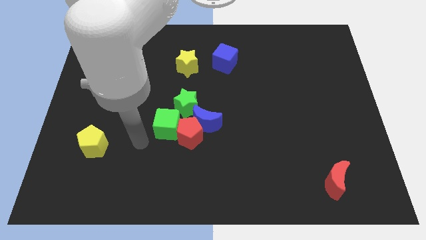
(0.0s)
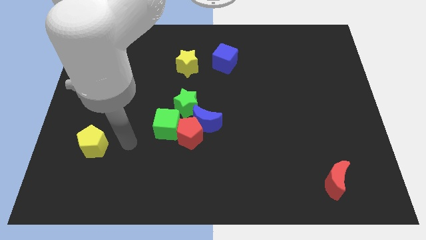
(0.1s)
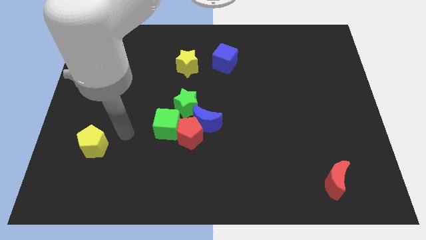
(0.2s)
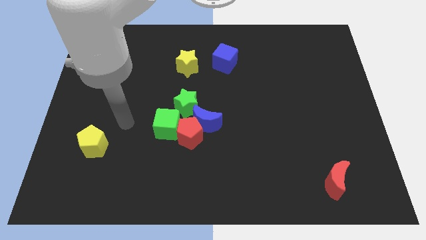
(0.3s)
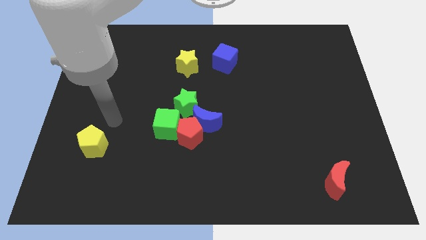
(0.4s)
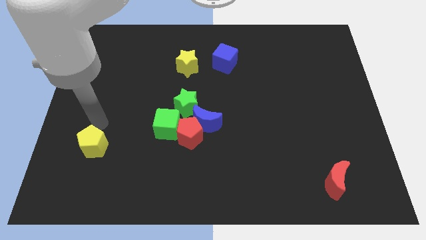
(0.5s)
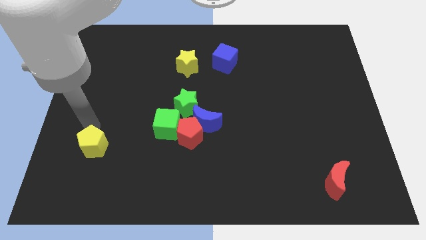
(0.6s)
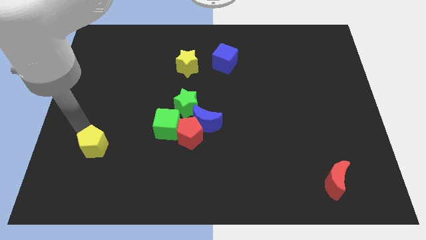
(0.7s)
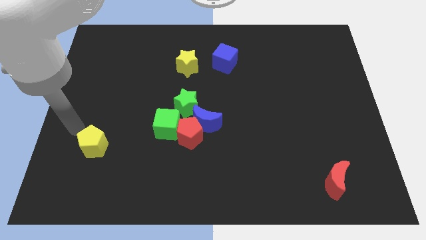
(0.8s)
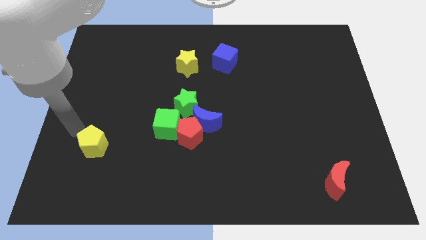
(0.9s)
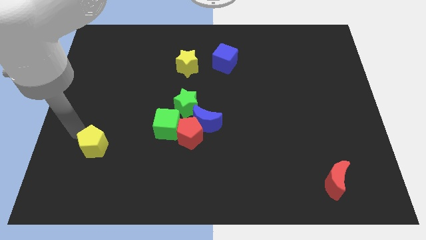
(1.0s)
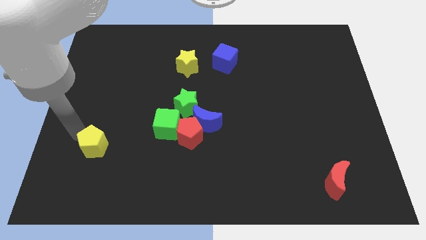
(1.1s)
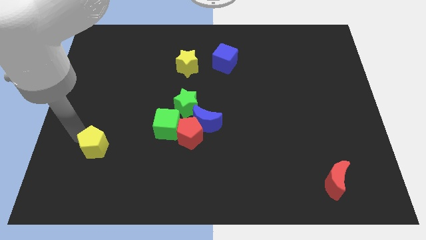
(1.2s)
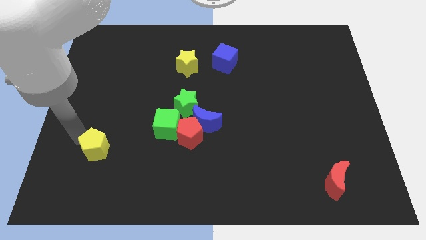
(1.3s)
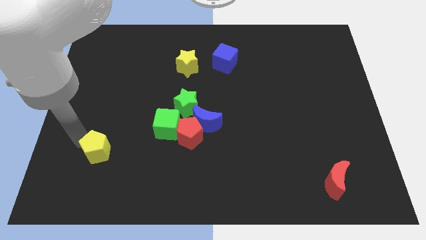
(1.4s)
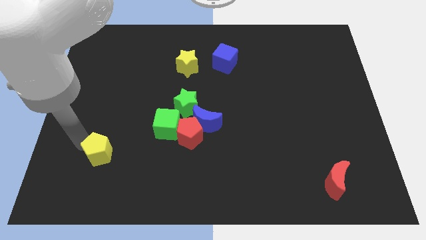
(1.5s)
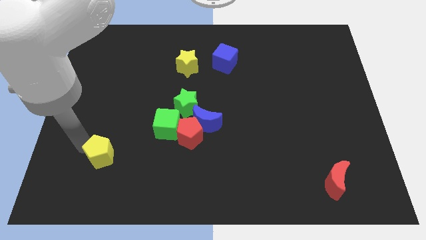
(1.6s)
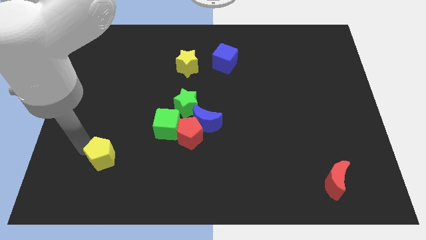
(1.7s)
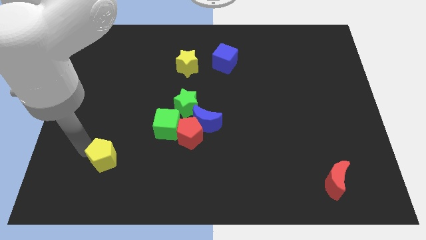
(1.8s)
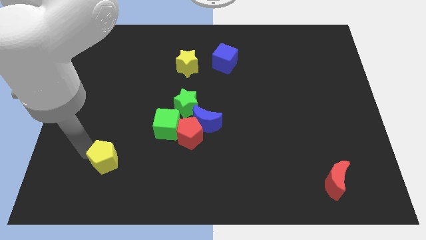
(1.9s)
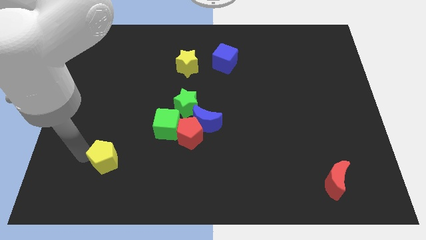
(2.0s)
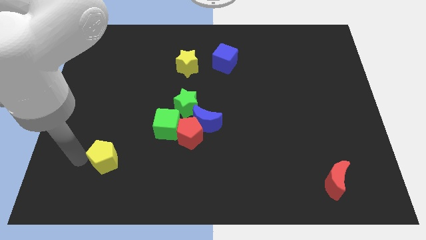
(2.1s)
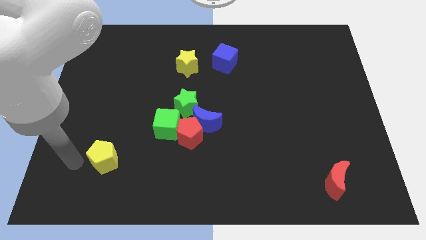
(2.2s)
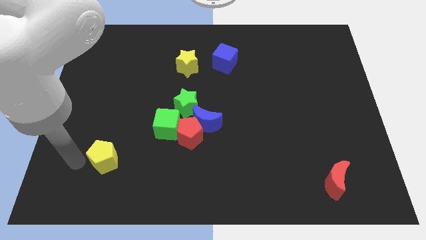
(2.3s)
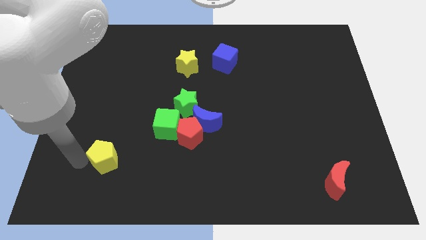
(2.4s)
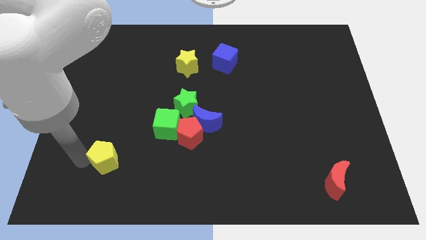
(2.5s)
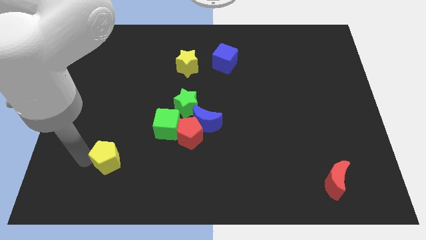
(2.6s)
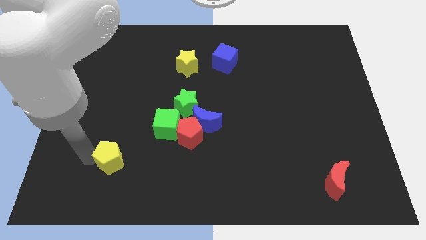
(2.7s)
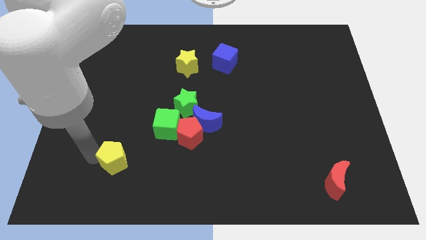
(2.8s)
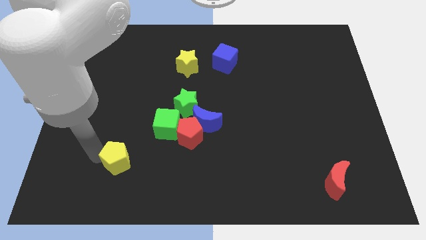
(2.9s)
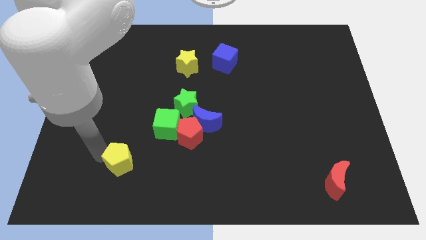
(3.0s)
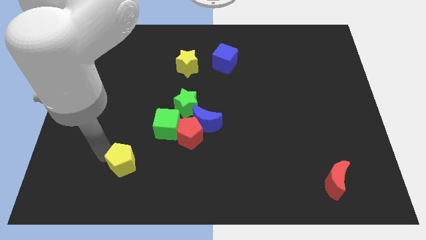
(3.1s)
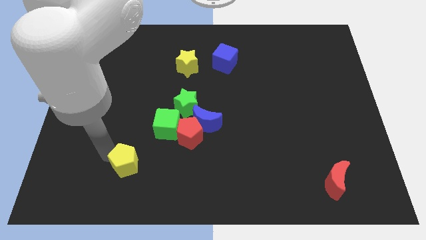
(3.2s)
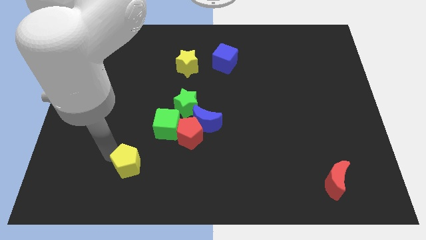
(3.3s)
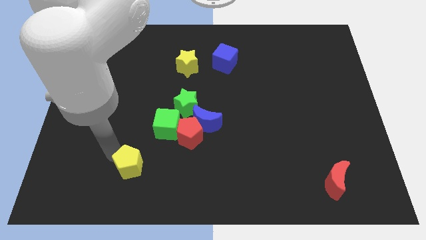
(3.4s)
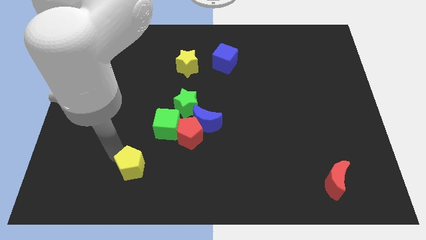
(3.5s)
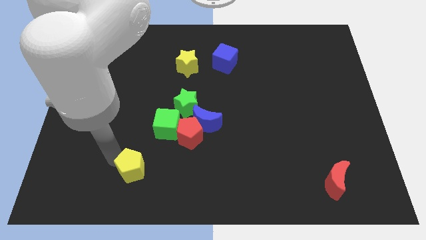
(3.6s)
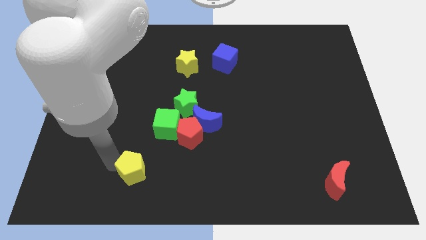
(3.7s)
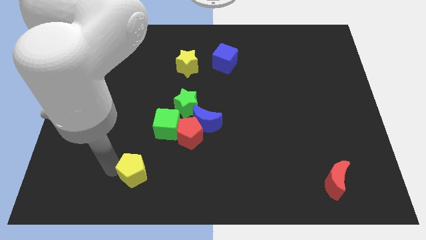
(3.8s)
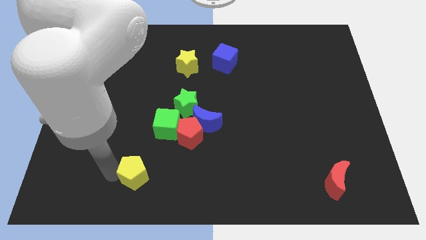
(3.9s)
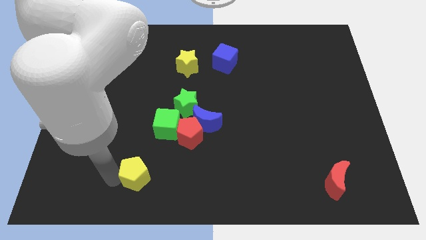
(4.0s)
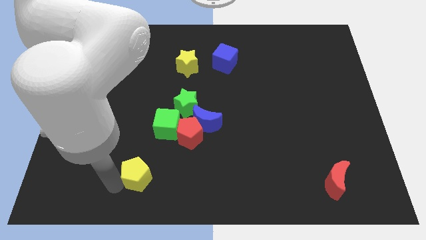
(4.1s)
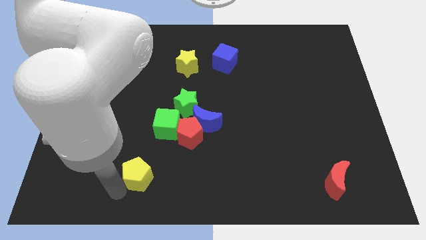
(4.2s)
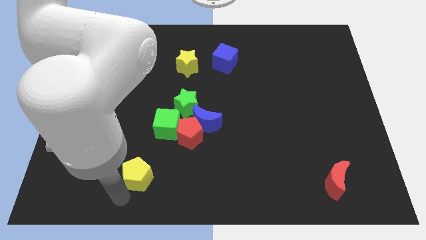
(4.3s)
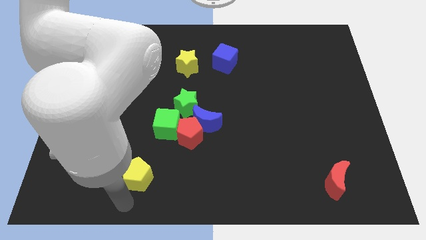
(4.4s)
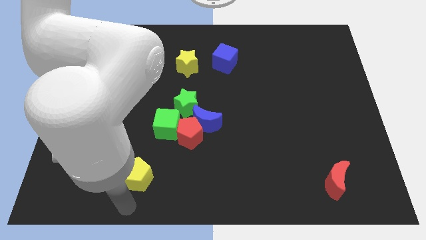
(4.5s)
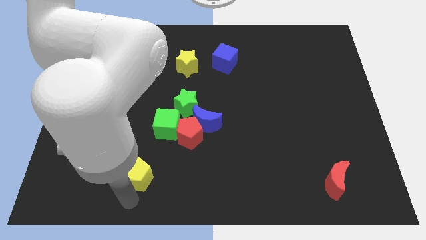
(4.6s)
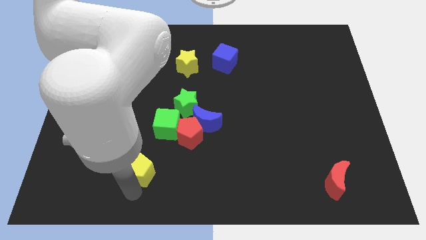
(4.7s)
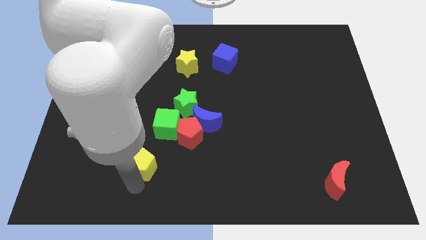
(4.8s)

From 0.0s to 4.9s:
push the yellow pentagon to the bottom left side of the red pentagon

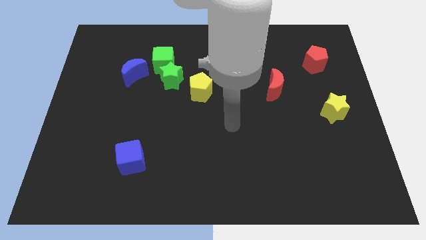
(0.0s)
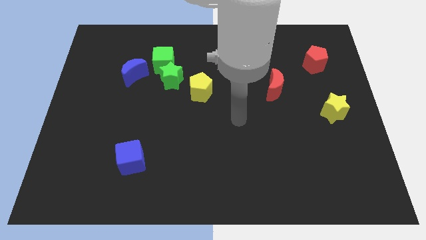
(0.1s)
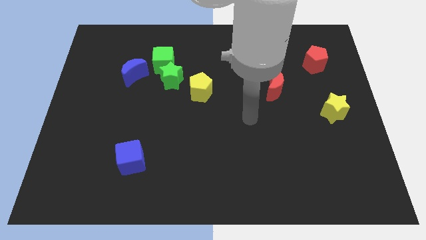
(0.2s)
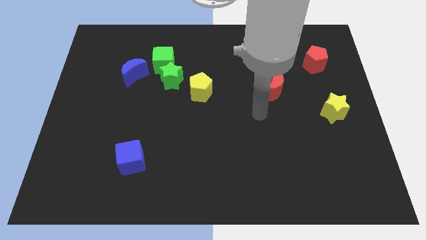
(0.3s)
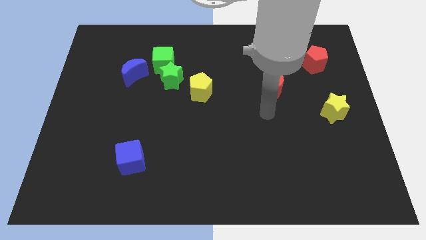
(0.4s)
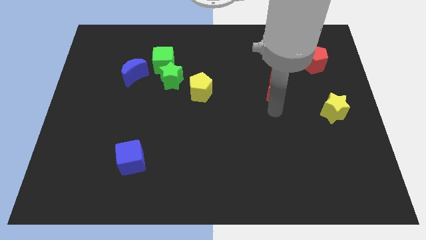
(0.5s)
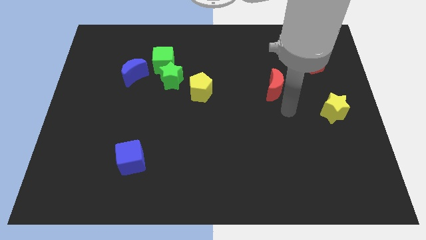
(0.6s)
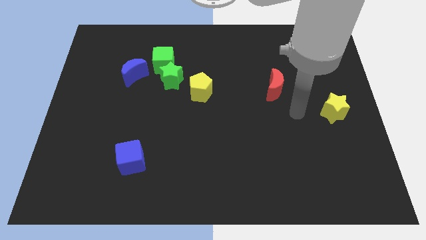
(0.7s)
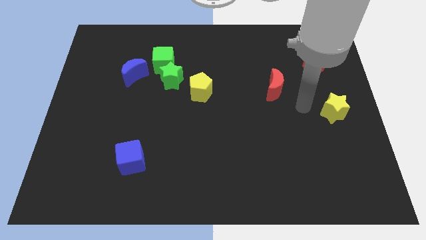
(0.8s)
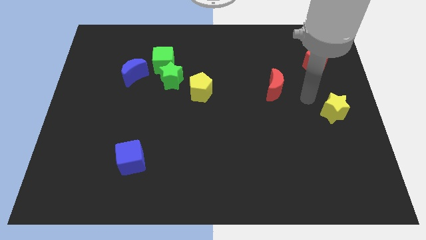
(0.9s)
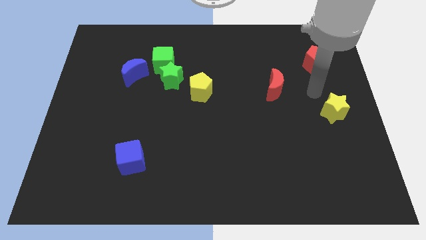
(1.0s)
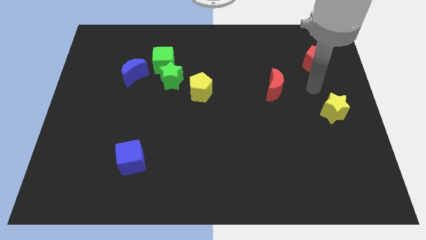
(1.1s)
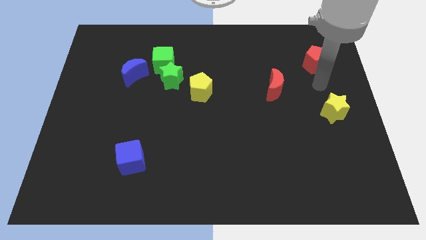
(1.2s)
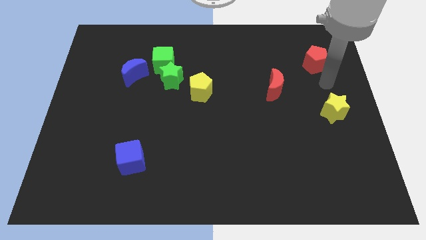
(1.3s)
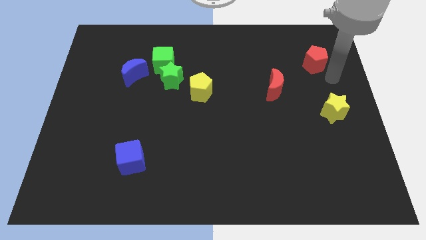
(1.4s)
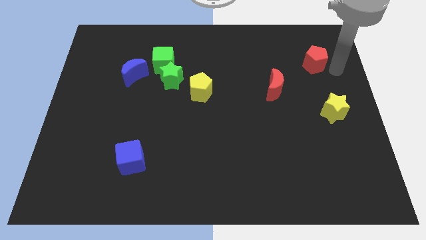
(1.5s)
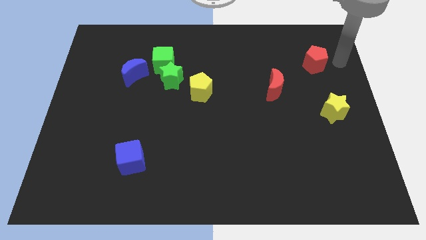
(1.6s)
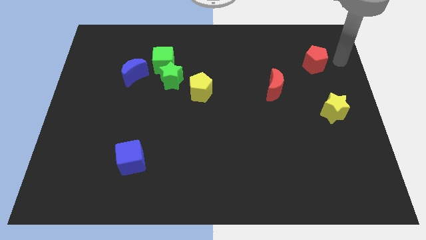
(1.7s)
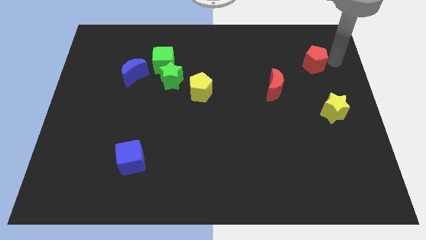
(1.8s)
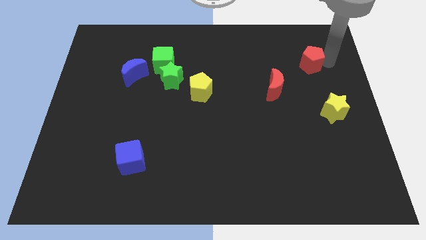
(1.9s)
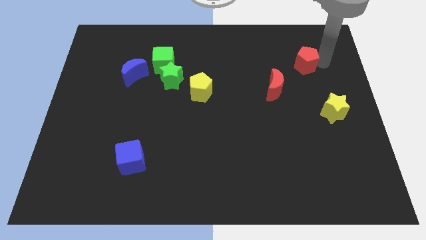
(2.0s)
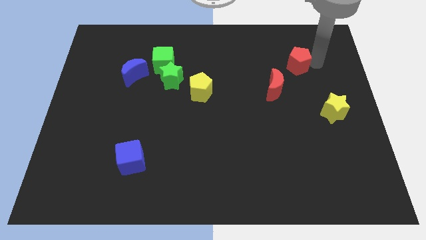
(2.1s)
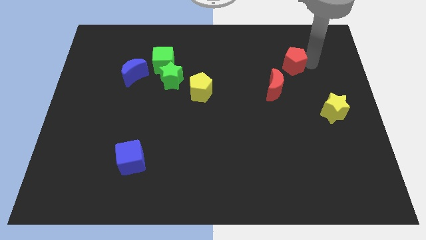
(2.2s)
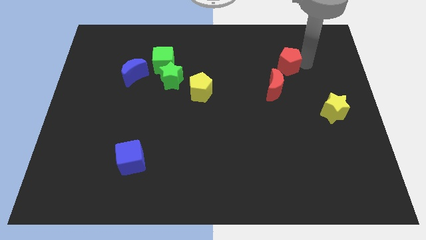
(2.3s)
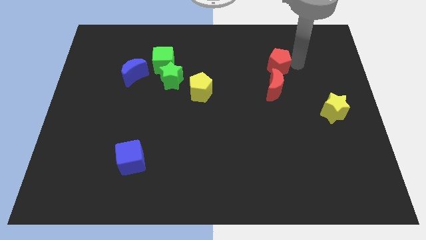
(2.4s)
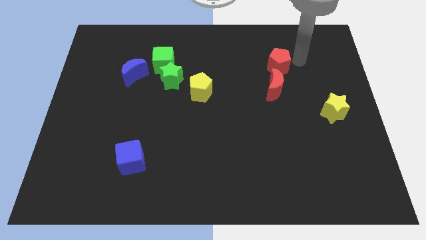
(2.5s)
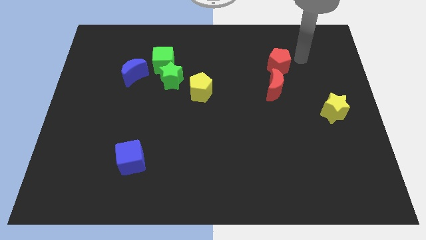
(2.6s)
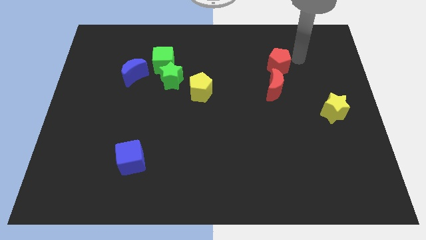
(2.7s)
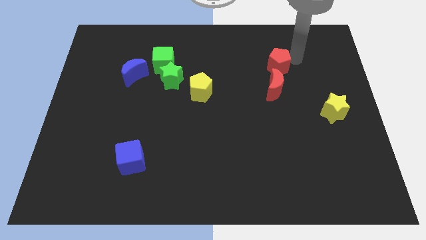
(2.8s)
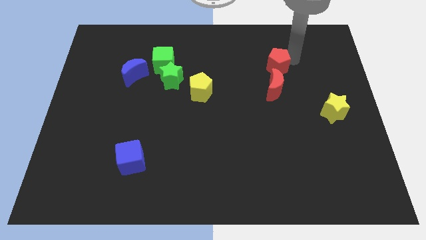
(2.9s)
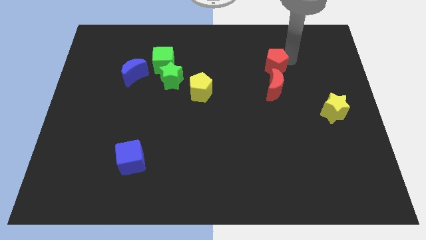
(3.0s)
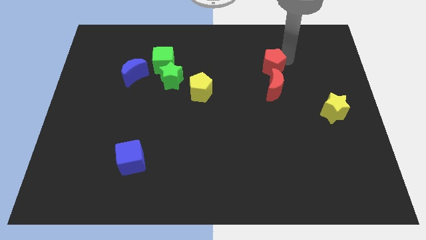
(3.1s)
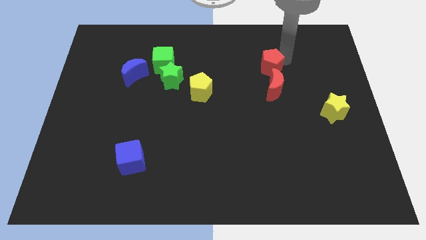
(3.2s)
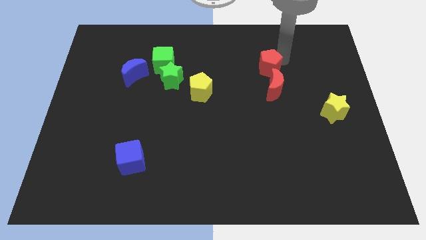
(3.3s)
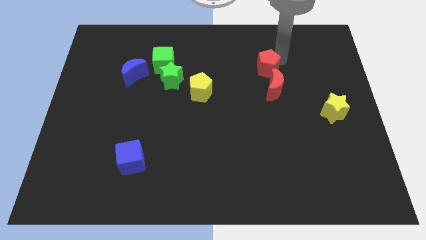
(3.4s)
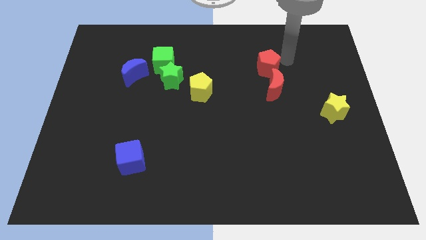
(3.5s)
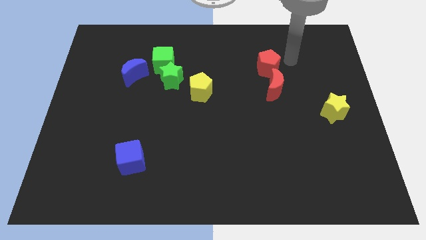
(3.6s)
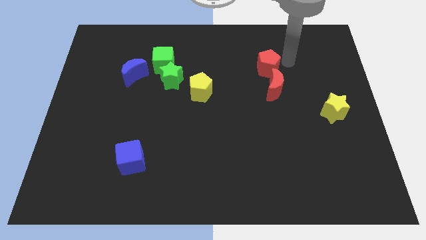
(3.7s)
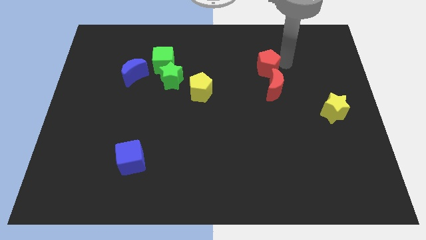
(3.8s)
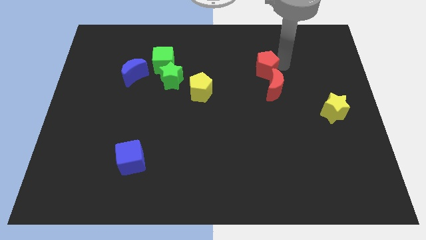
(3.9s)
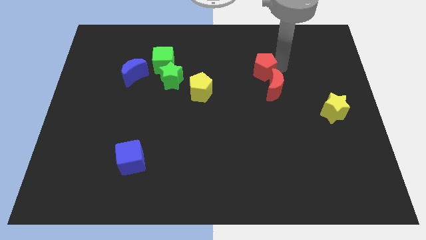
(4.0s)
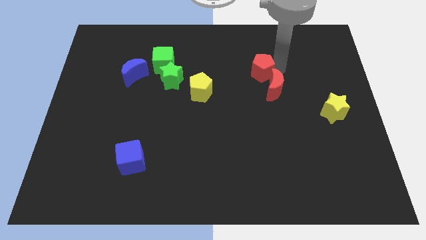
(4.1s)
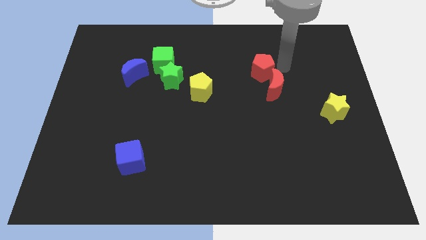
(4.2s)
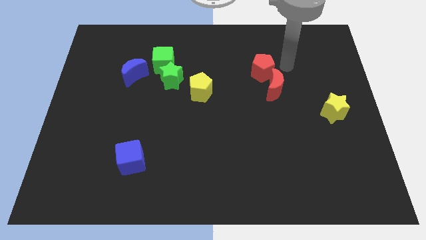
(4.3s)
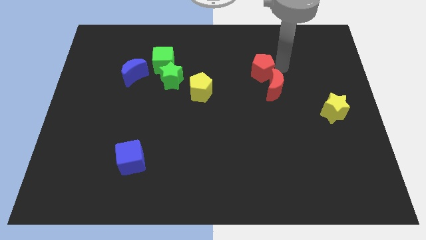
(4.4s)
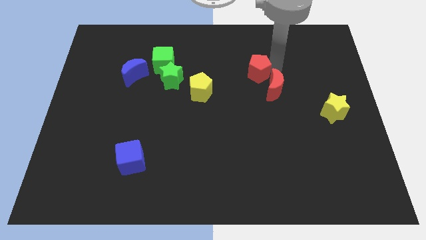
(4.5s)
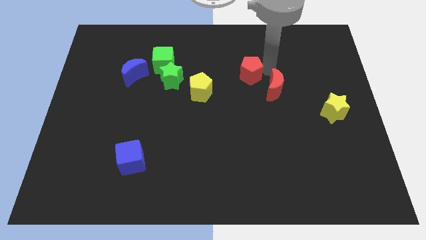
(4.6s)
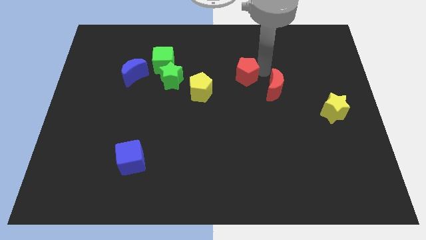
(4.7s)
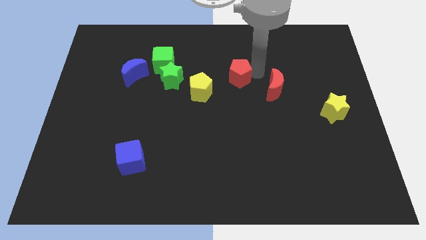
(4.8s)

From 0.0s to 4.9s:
slide the red pentagon to the top right of the yellow pentagon
